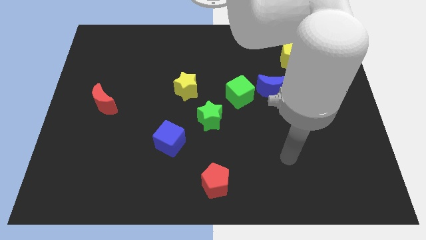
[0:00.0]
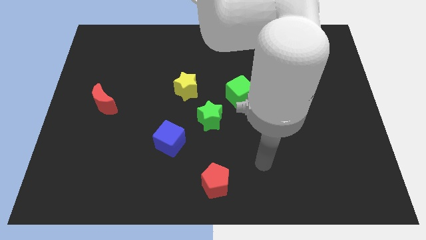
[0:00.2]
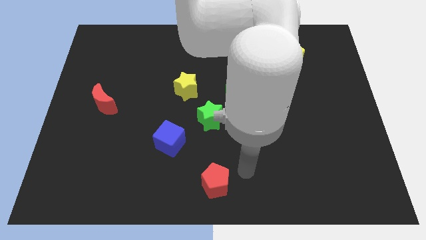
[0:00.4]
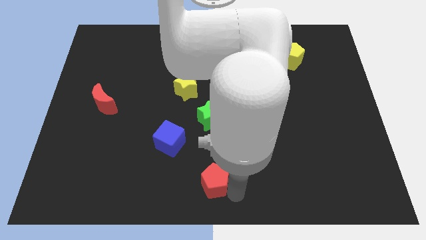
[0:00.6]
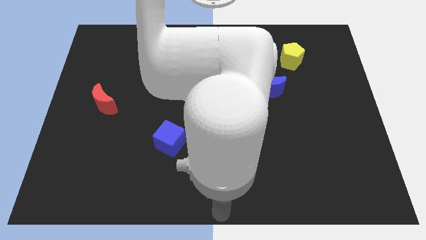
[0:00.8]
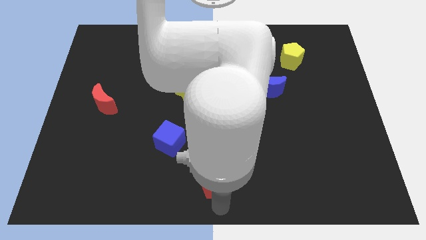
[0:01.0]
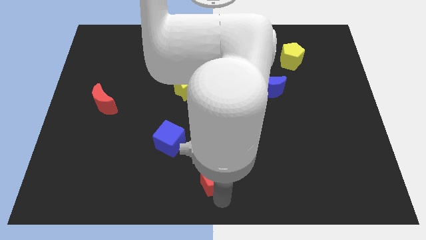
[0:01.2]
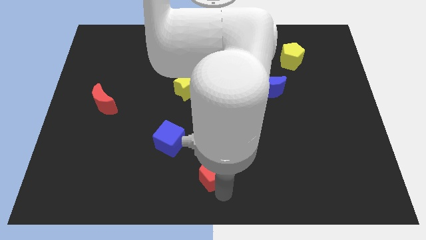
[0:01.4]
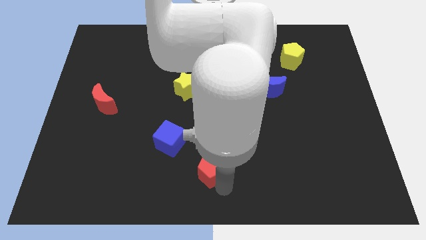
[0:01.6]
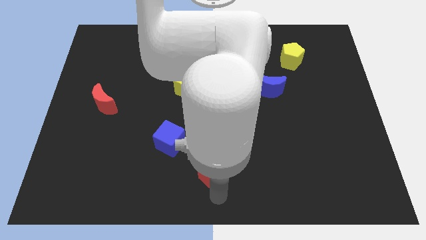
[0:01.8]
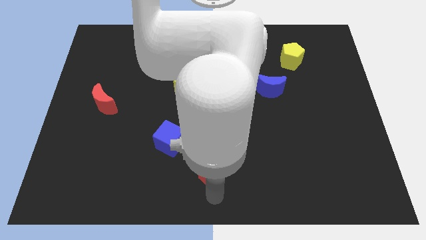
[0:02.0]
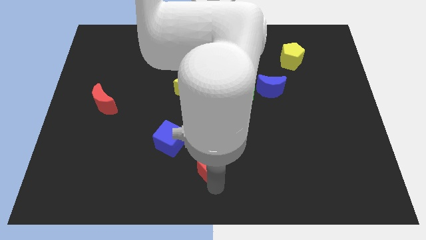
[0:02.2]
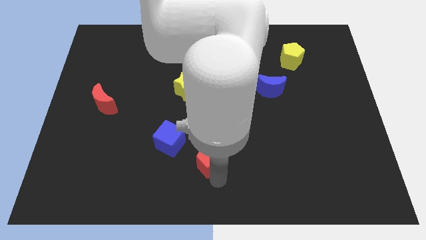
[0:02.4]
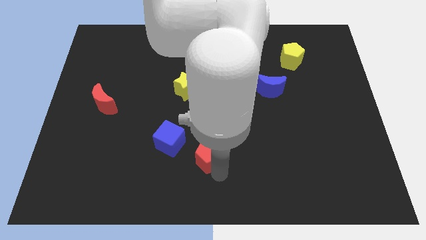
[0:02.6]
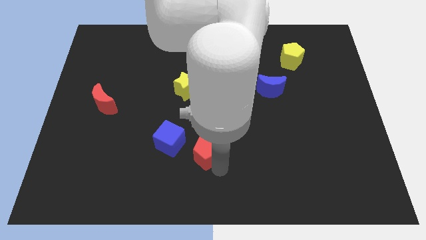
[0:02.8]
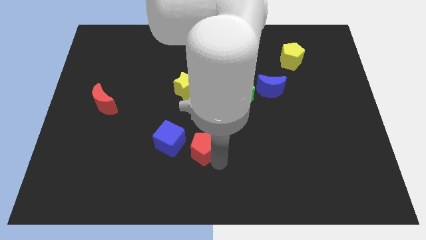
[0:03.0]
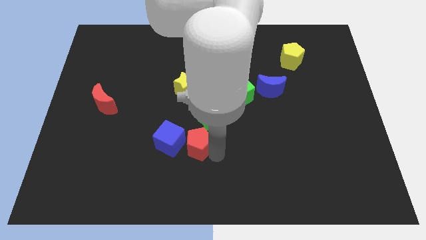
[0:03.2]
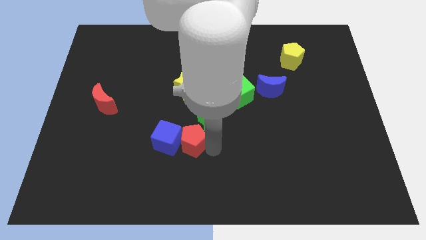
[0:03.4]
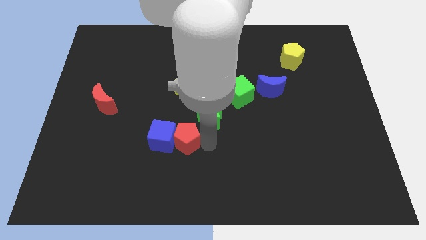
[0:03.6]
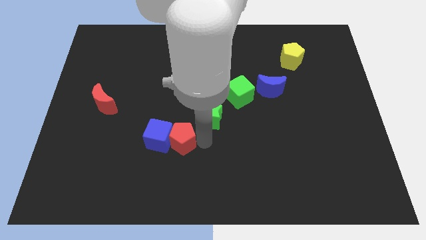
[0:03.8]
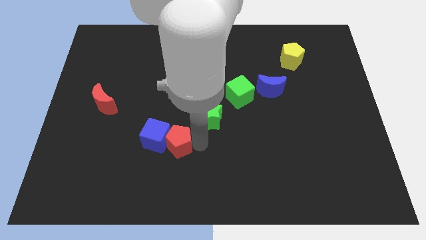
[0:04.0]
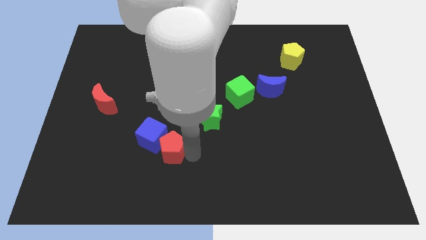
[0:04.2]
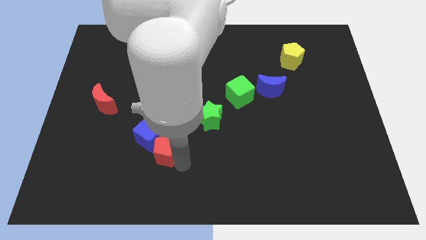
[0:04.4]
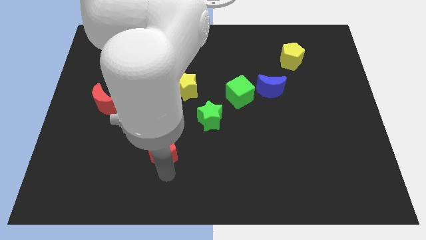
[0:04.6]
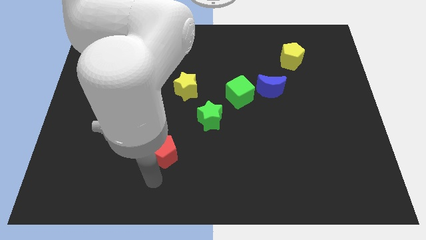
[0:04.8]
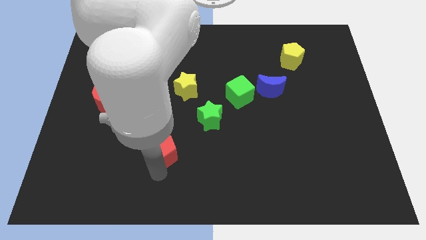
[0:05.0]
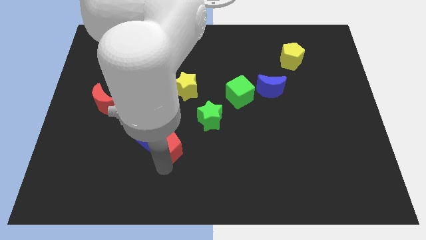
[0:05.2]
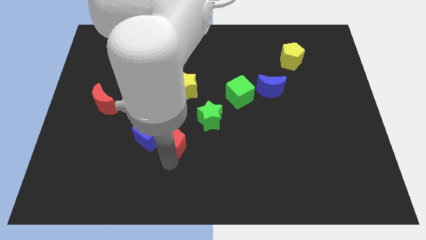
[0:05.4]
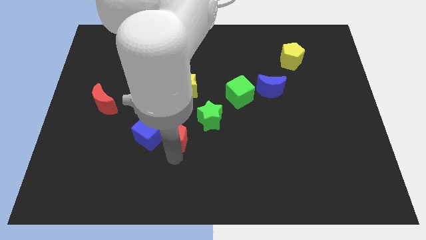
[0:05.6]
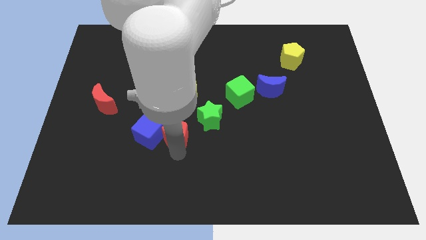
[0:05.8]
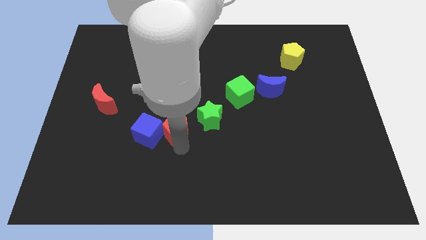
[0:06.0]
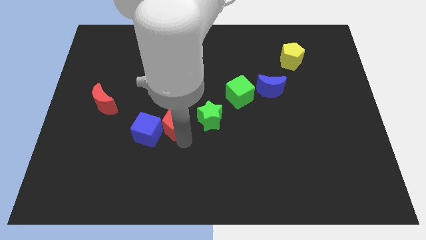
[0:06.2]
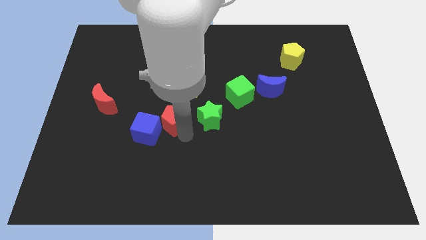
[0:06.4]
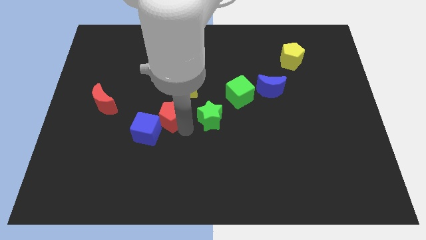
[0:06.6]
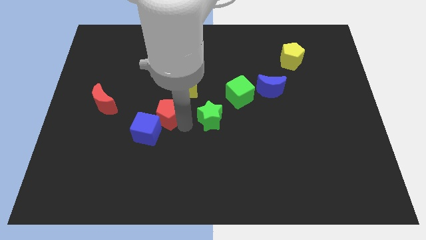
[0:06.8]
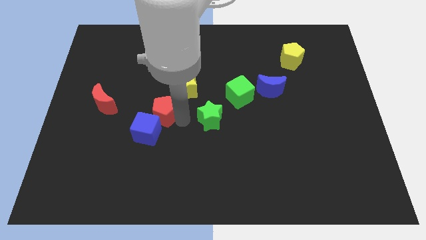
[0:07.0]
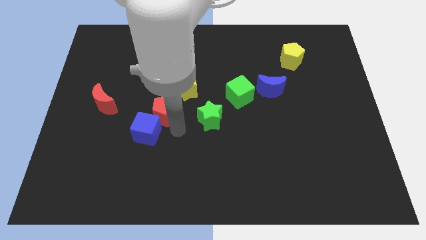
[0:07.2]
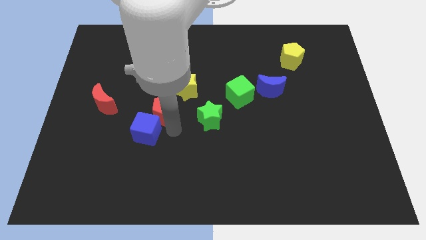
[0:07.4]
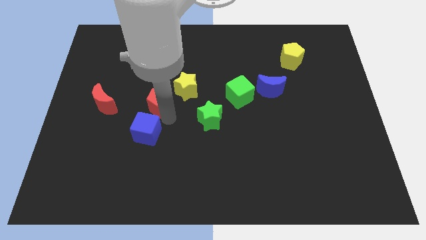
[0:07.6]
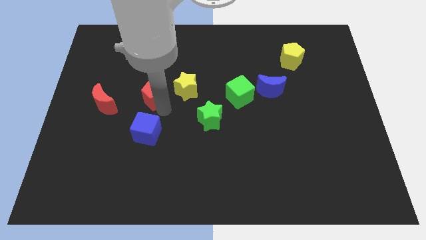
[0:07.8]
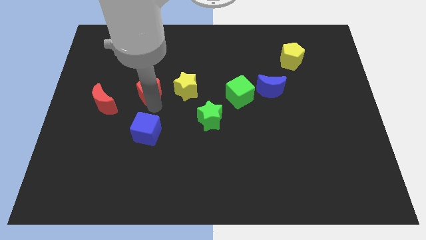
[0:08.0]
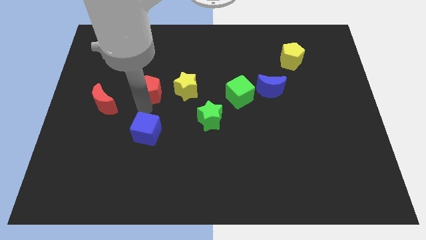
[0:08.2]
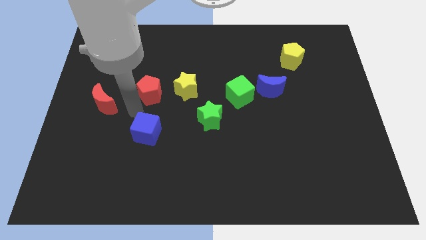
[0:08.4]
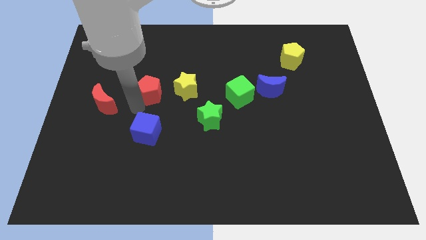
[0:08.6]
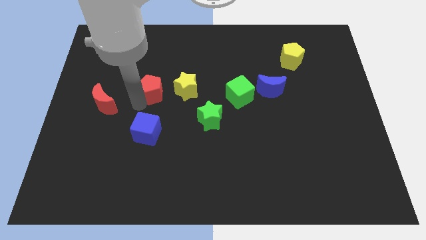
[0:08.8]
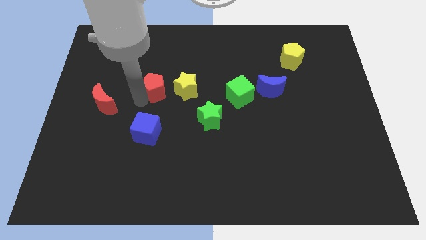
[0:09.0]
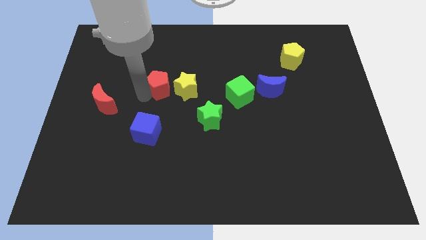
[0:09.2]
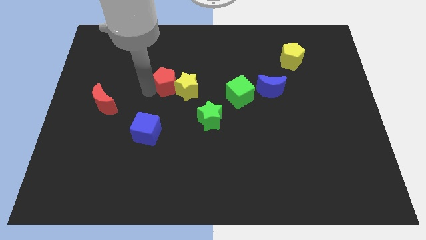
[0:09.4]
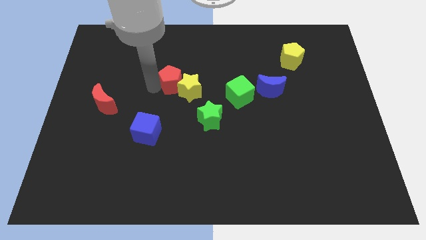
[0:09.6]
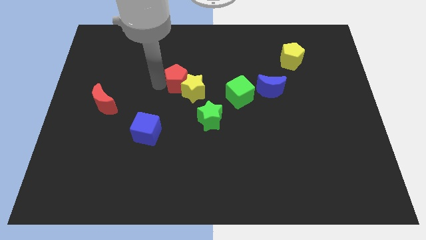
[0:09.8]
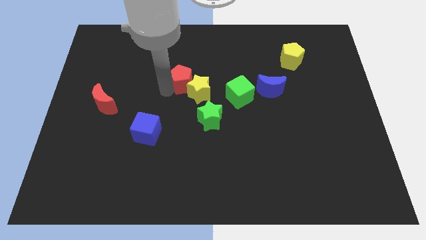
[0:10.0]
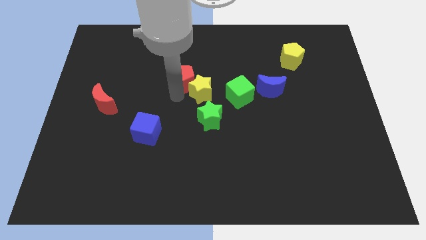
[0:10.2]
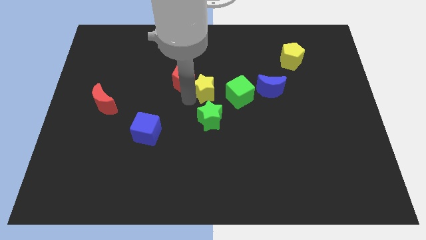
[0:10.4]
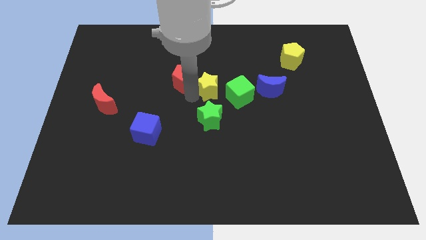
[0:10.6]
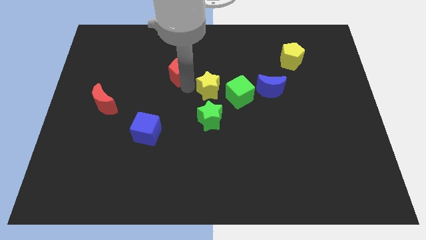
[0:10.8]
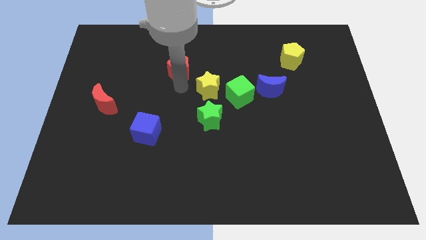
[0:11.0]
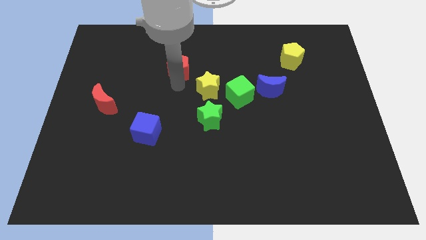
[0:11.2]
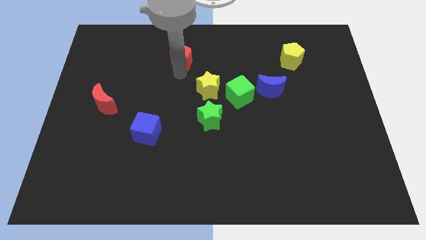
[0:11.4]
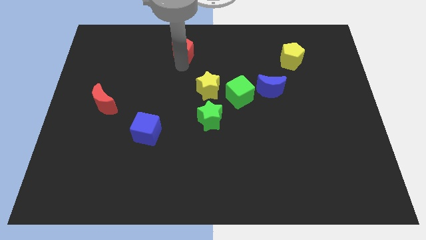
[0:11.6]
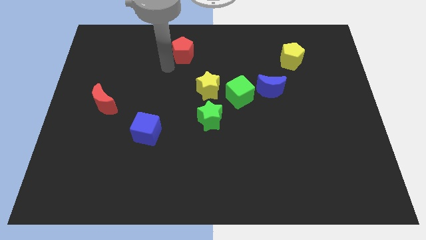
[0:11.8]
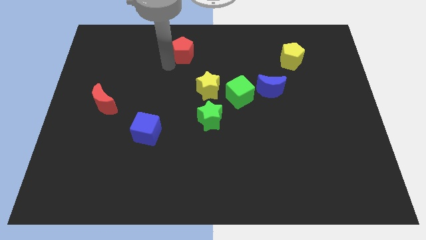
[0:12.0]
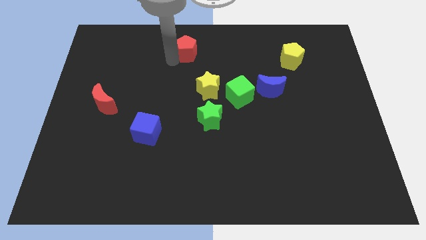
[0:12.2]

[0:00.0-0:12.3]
push the red pentagon to the towards your base

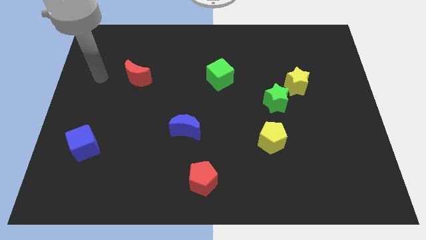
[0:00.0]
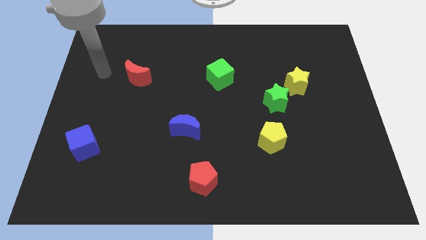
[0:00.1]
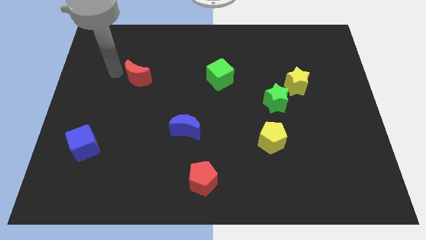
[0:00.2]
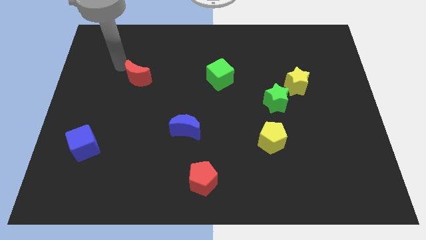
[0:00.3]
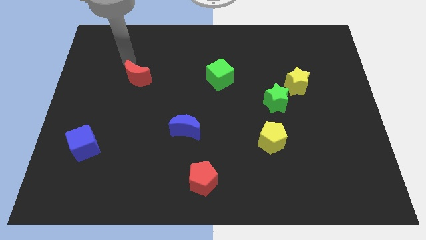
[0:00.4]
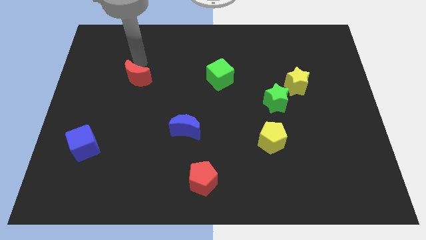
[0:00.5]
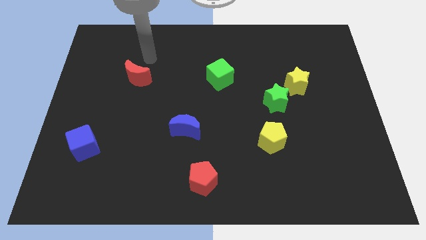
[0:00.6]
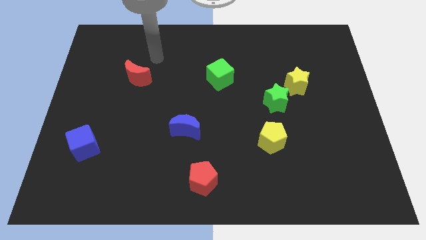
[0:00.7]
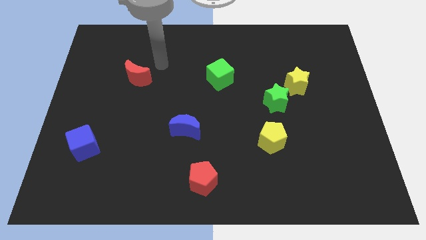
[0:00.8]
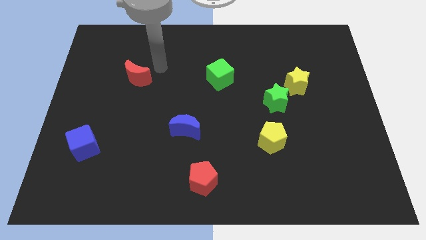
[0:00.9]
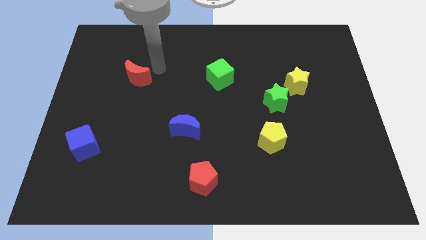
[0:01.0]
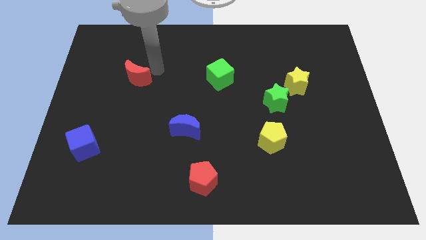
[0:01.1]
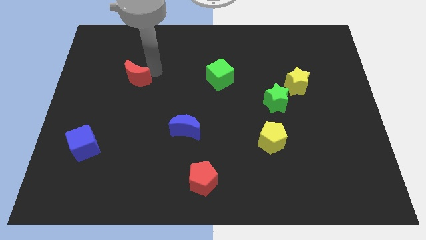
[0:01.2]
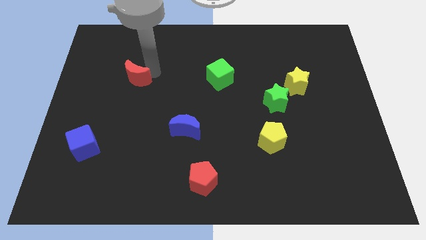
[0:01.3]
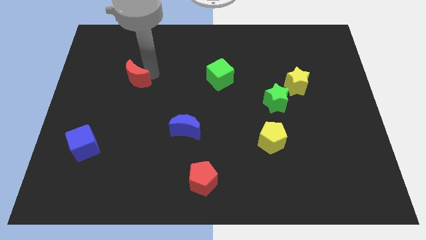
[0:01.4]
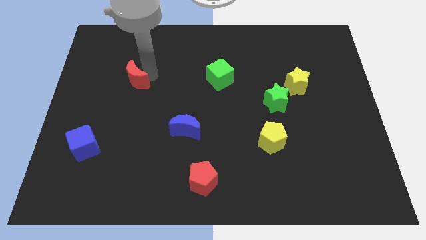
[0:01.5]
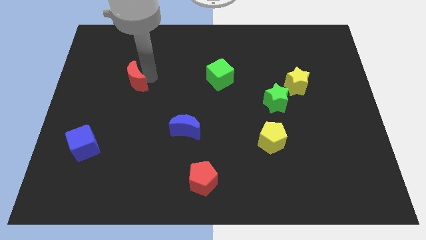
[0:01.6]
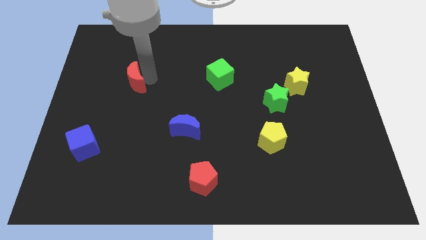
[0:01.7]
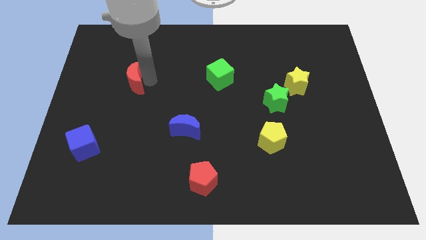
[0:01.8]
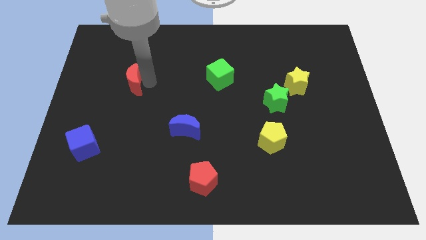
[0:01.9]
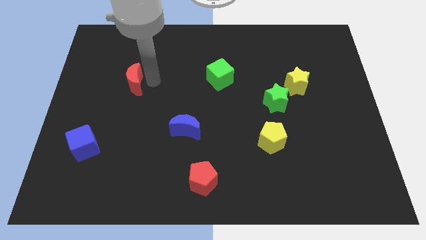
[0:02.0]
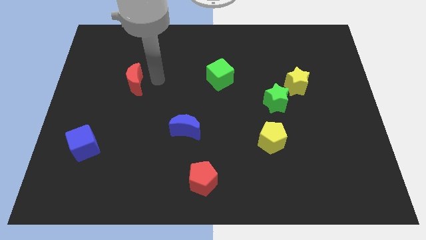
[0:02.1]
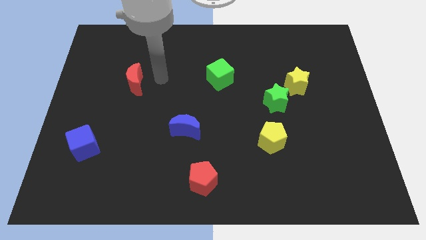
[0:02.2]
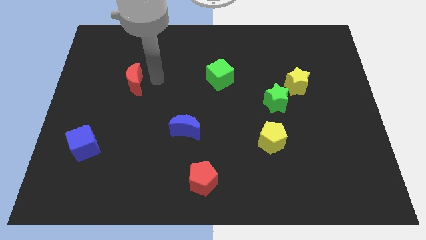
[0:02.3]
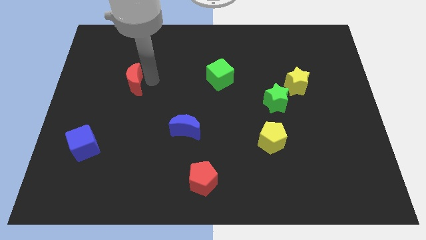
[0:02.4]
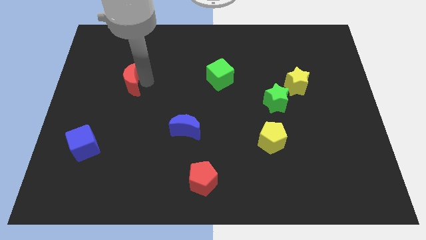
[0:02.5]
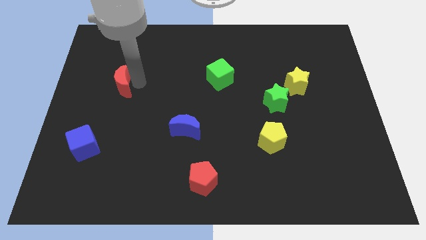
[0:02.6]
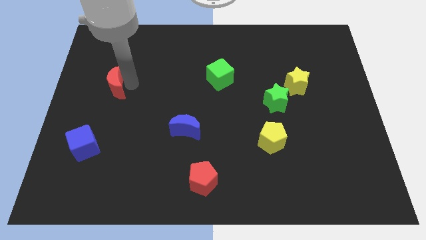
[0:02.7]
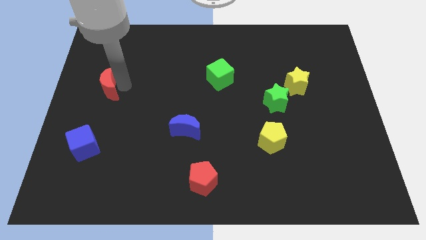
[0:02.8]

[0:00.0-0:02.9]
push the red moon to the left side
